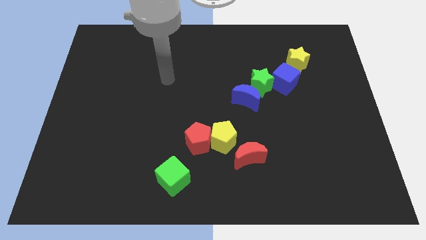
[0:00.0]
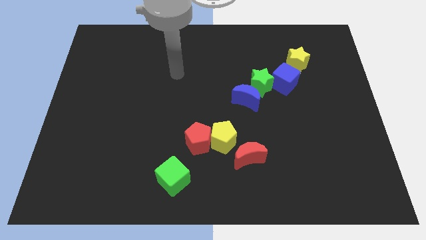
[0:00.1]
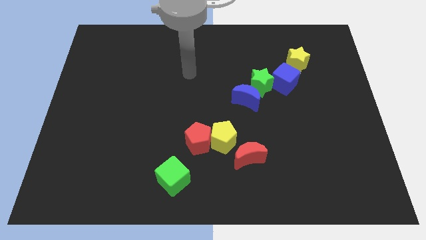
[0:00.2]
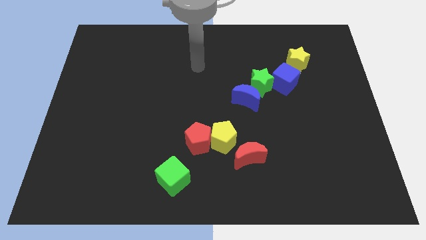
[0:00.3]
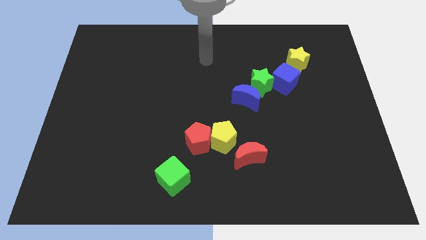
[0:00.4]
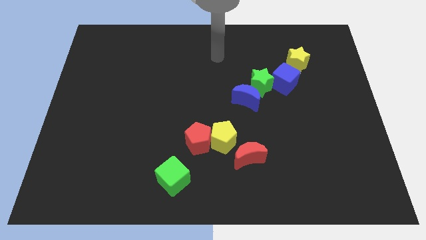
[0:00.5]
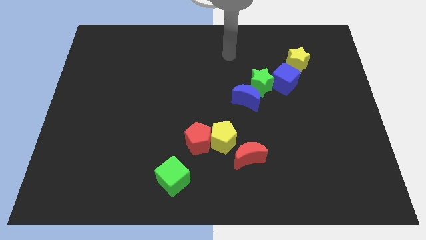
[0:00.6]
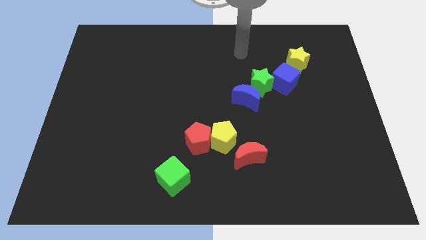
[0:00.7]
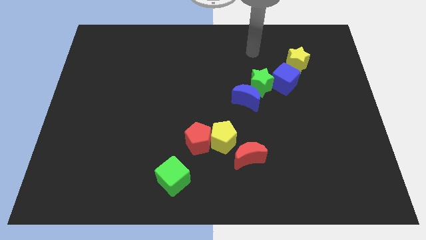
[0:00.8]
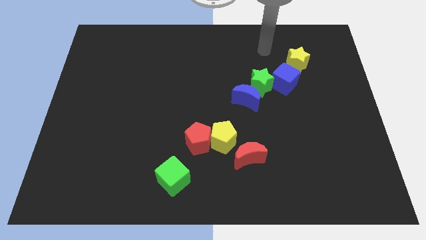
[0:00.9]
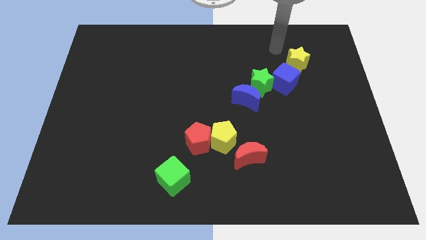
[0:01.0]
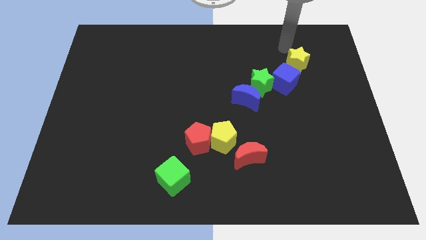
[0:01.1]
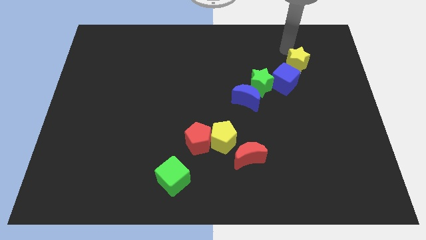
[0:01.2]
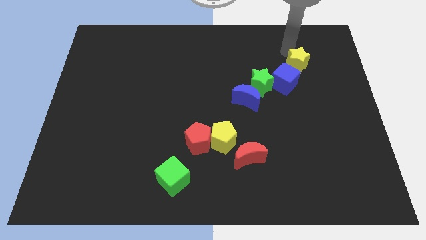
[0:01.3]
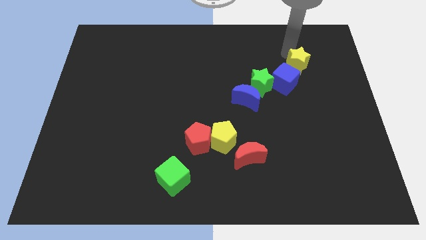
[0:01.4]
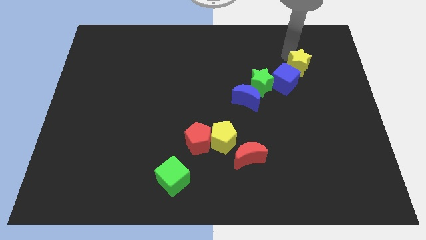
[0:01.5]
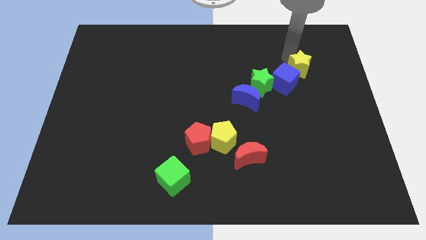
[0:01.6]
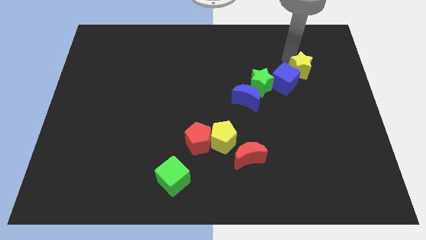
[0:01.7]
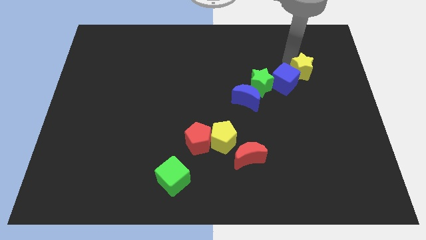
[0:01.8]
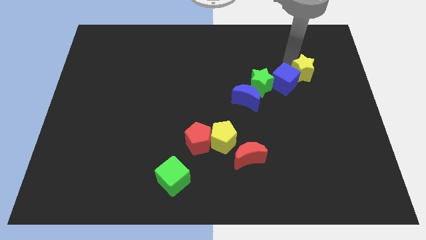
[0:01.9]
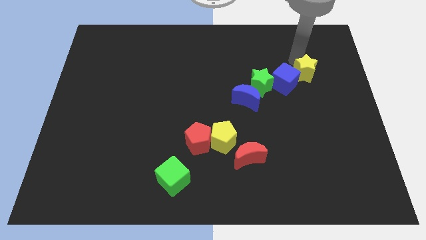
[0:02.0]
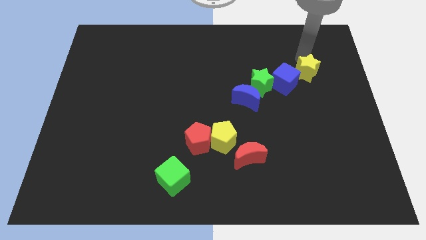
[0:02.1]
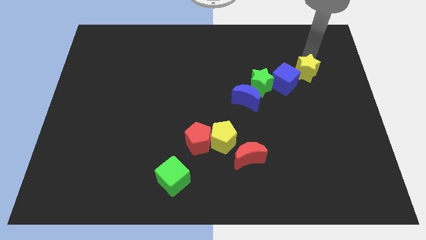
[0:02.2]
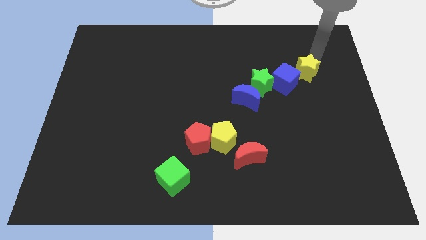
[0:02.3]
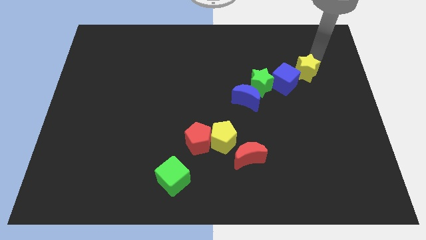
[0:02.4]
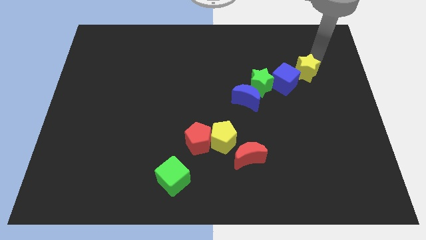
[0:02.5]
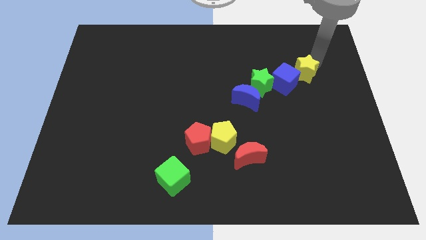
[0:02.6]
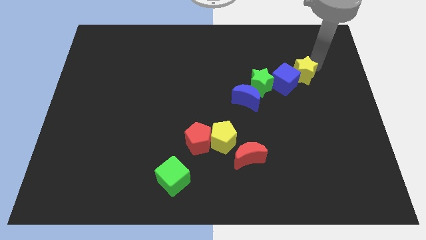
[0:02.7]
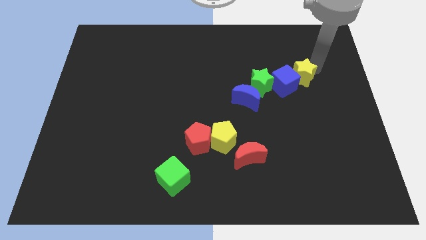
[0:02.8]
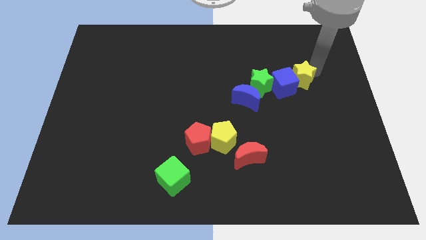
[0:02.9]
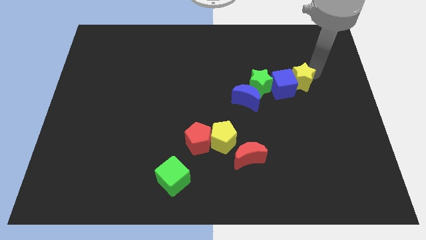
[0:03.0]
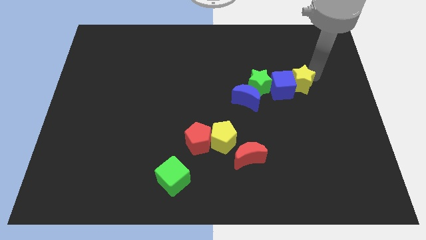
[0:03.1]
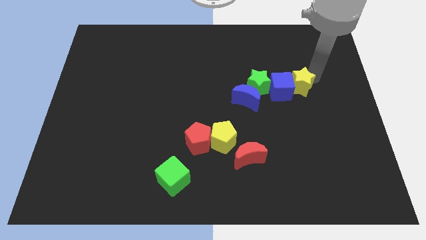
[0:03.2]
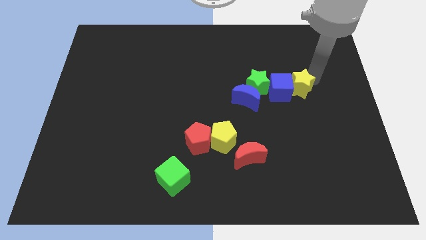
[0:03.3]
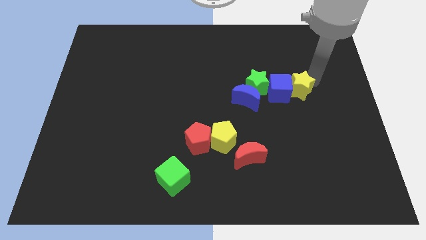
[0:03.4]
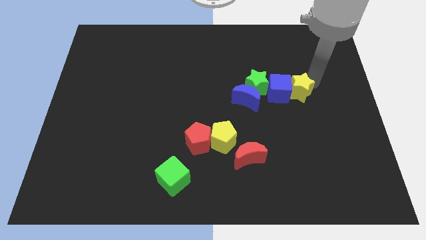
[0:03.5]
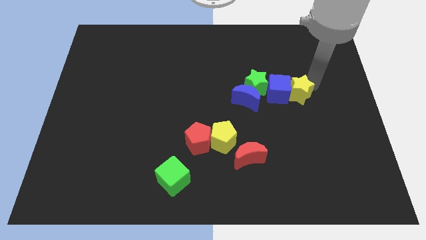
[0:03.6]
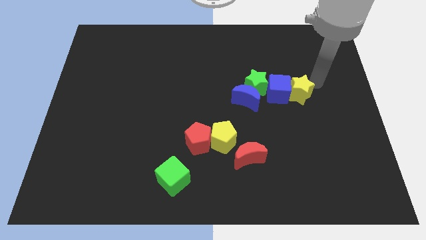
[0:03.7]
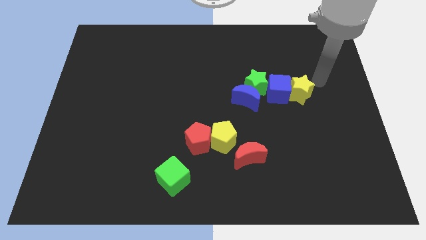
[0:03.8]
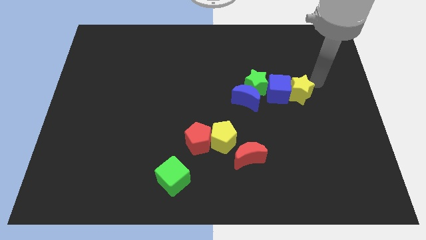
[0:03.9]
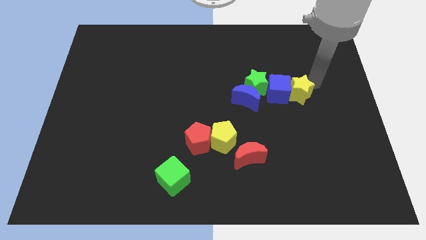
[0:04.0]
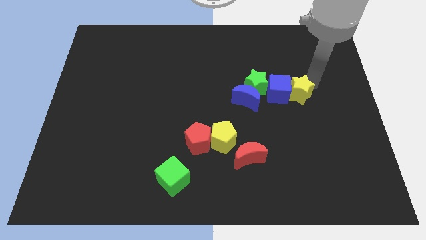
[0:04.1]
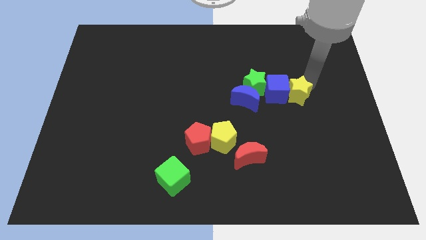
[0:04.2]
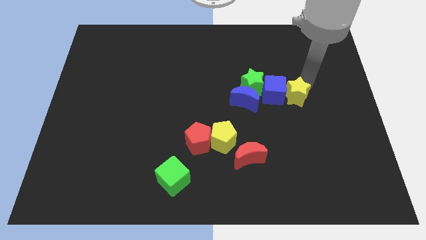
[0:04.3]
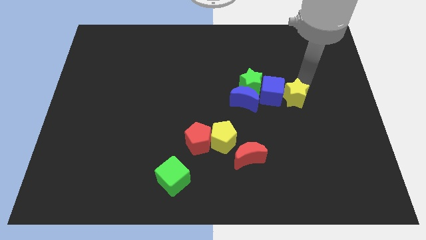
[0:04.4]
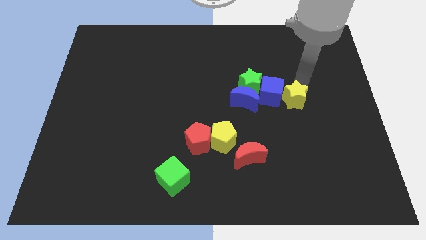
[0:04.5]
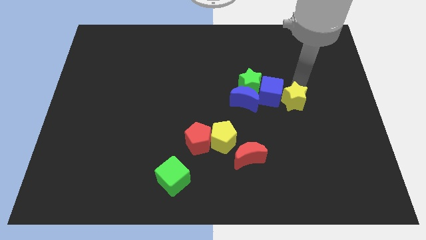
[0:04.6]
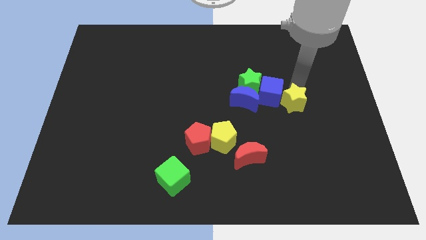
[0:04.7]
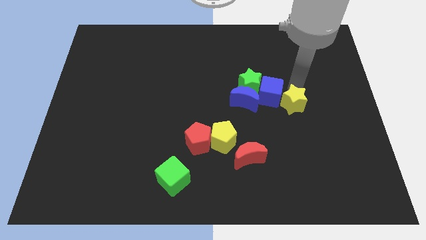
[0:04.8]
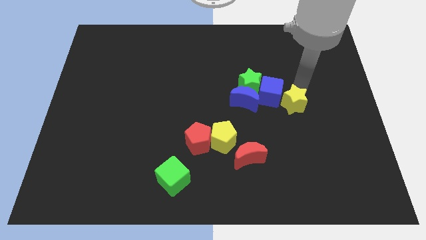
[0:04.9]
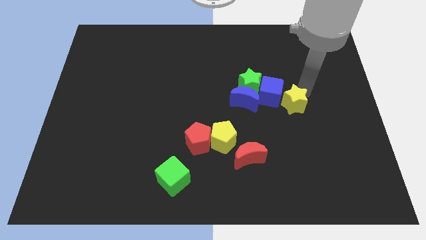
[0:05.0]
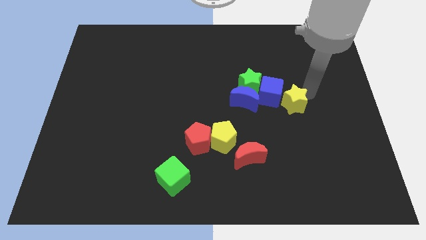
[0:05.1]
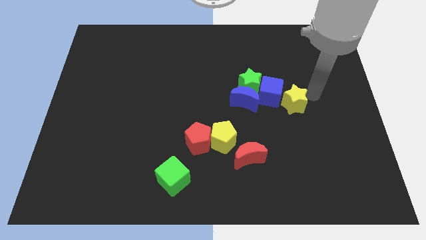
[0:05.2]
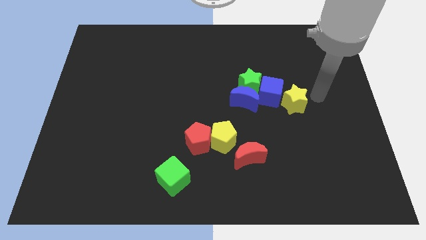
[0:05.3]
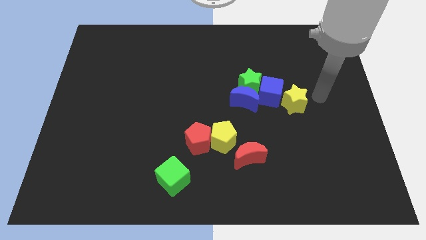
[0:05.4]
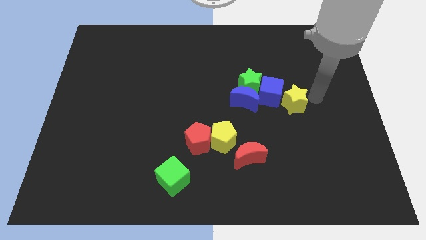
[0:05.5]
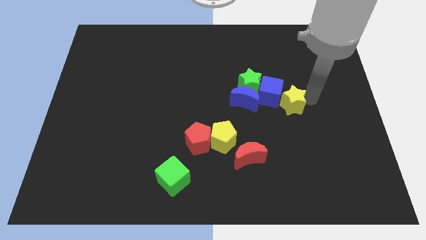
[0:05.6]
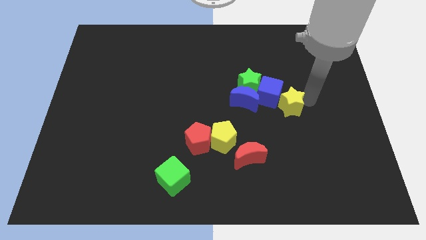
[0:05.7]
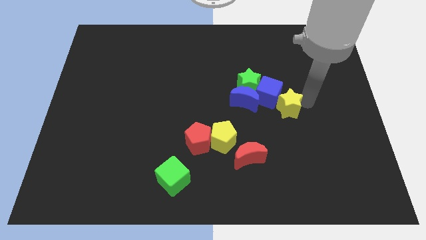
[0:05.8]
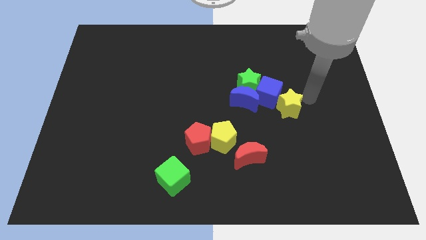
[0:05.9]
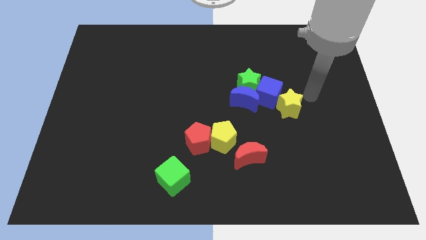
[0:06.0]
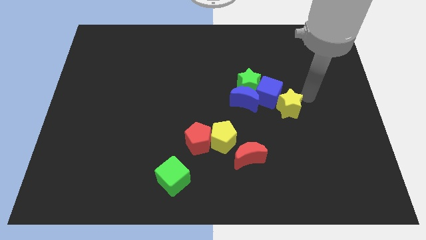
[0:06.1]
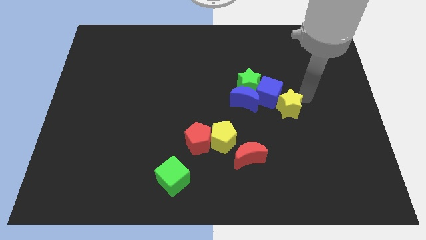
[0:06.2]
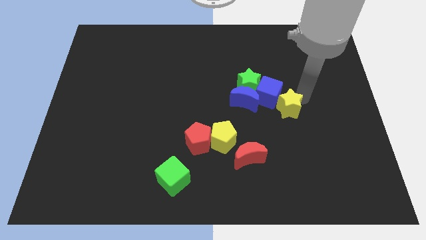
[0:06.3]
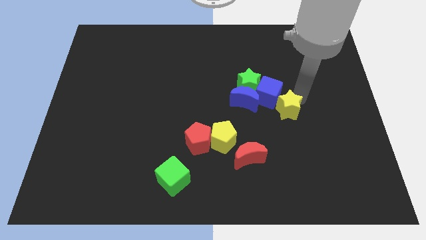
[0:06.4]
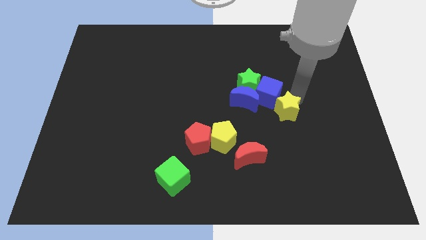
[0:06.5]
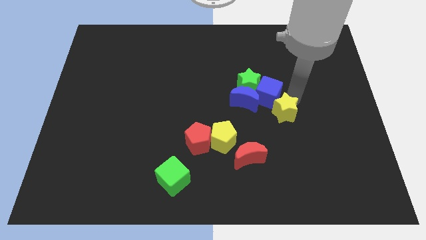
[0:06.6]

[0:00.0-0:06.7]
put the yellow star diagonally down and to the right of the blue moon

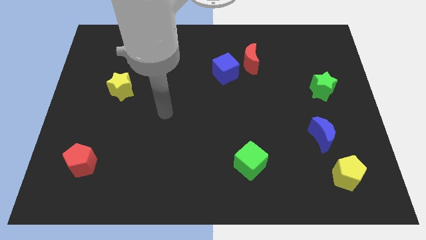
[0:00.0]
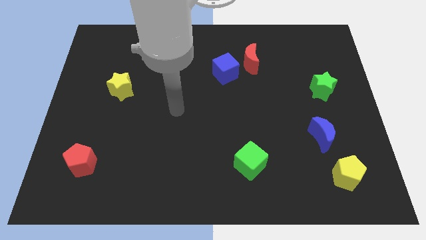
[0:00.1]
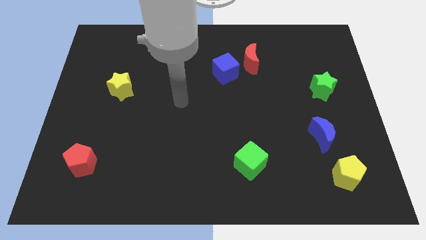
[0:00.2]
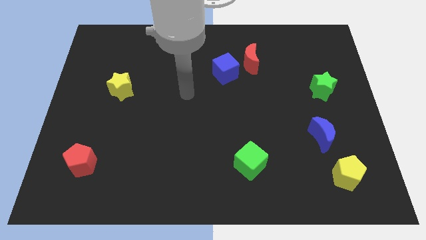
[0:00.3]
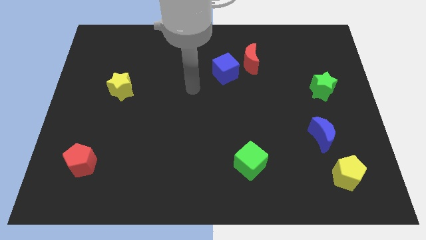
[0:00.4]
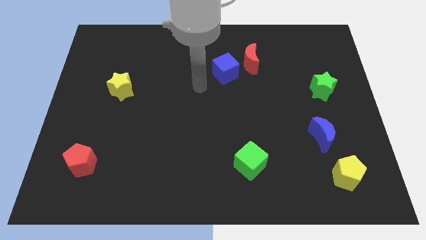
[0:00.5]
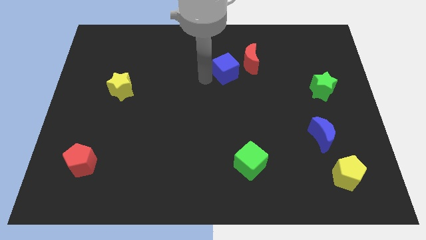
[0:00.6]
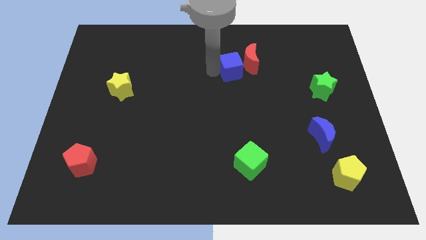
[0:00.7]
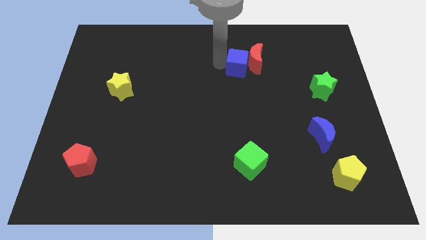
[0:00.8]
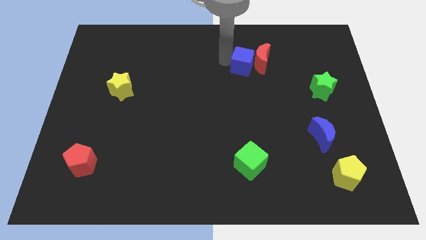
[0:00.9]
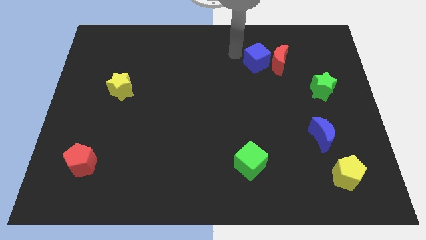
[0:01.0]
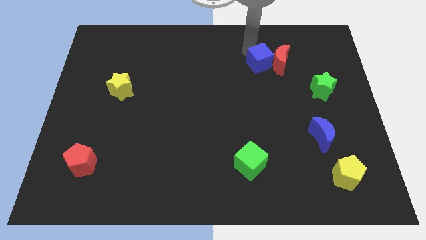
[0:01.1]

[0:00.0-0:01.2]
slide the red moon to the top left of the green star

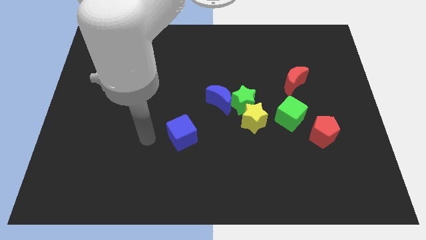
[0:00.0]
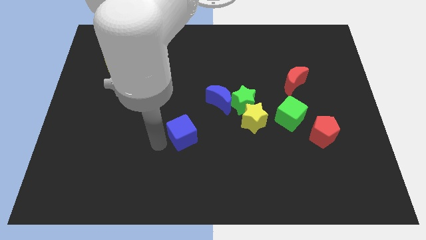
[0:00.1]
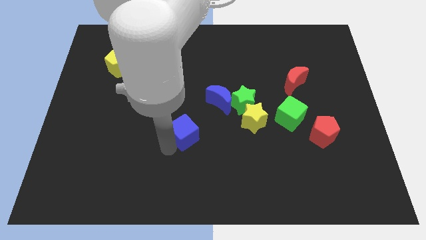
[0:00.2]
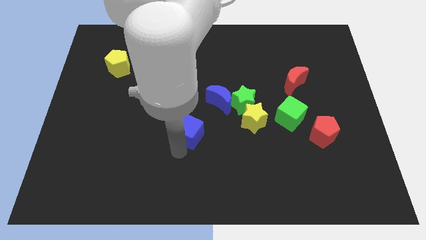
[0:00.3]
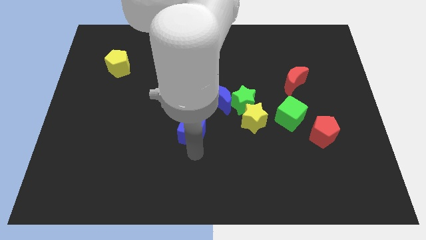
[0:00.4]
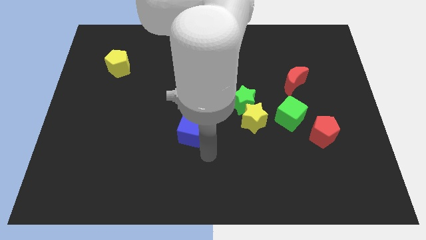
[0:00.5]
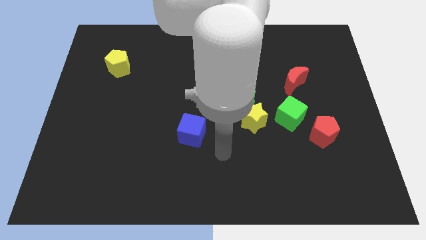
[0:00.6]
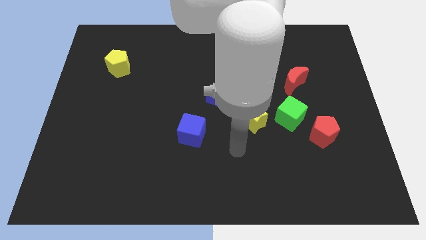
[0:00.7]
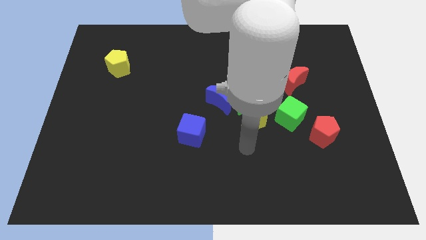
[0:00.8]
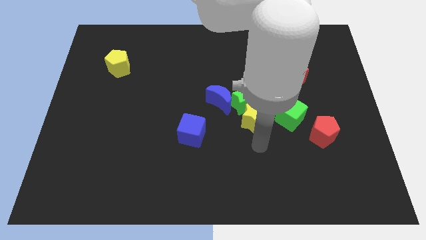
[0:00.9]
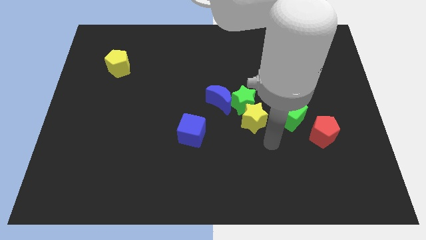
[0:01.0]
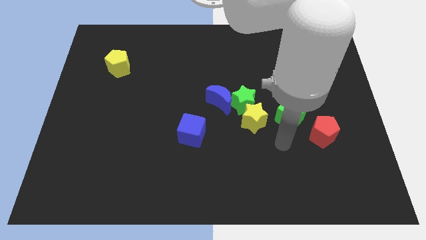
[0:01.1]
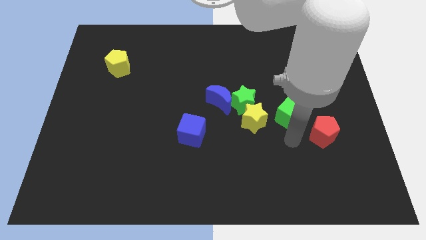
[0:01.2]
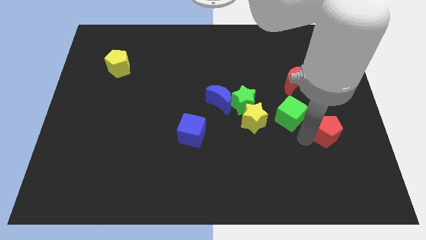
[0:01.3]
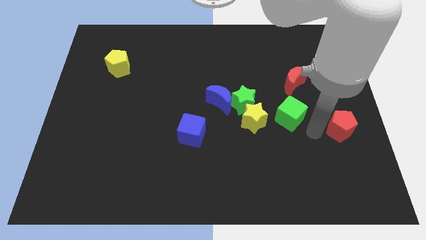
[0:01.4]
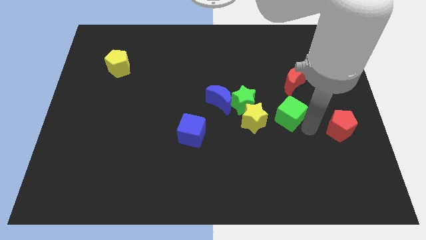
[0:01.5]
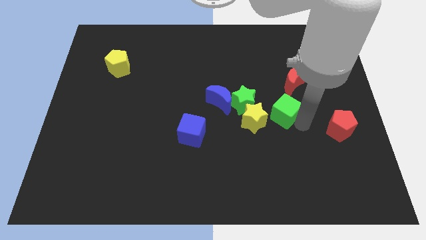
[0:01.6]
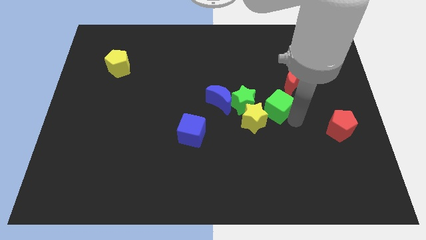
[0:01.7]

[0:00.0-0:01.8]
slide the green cube to the right of the blue moon
